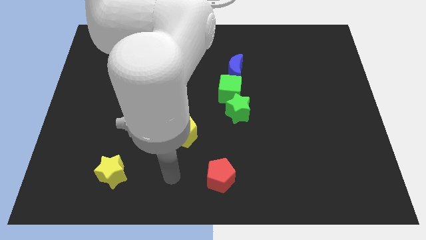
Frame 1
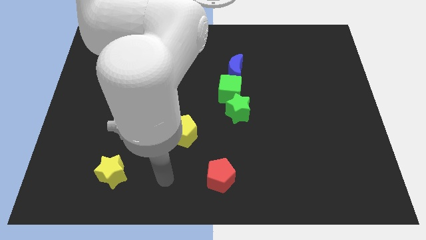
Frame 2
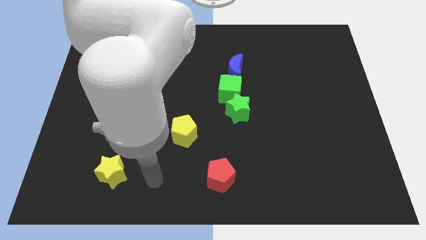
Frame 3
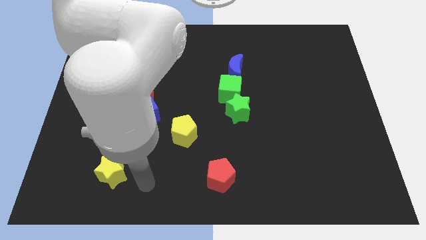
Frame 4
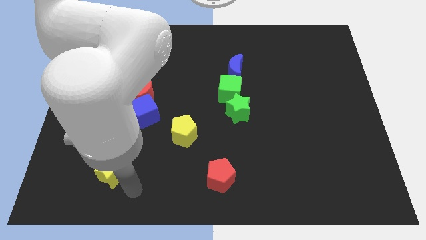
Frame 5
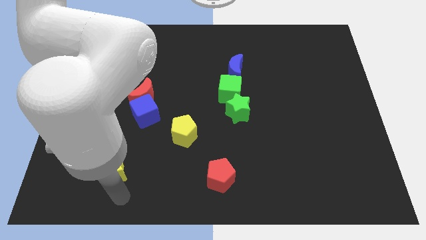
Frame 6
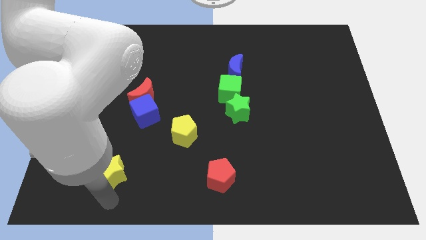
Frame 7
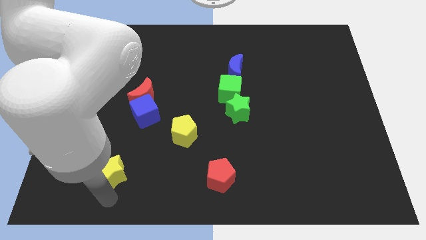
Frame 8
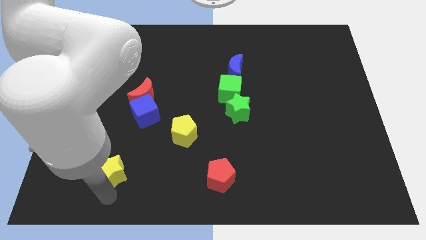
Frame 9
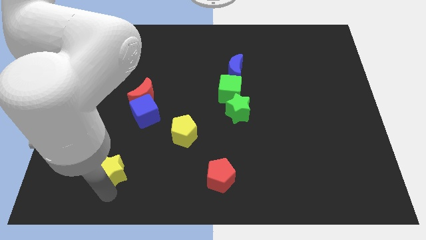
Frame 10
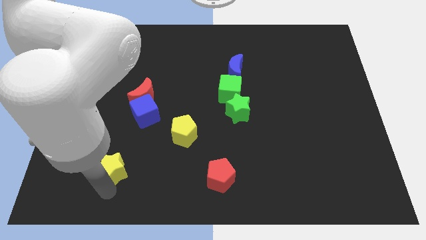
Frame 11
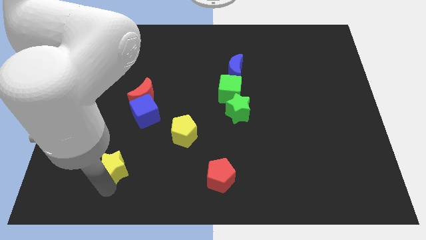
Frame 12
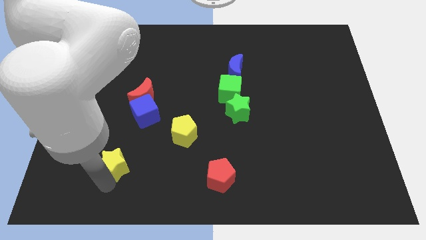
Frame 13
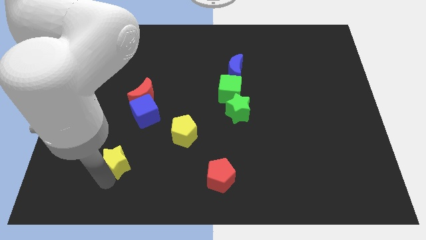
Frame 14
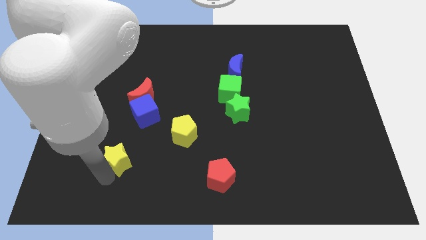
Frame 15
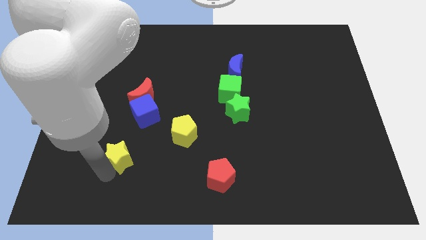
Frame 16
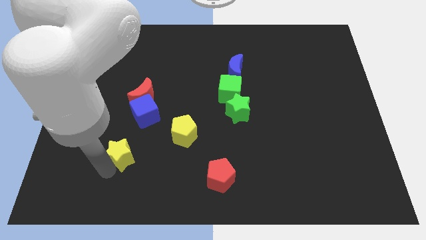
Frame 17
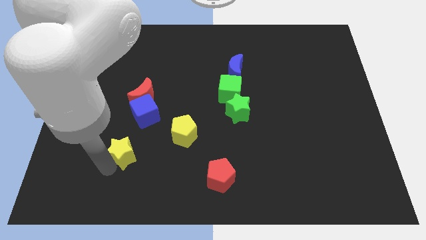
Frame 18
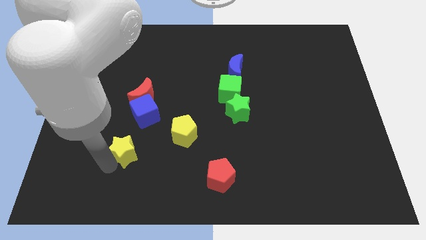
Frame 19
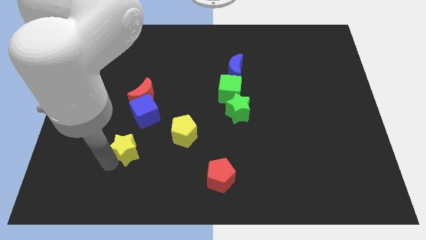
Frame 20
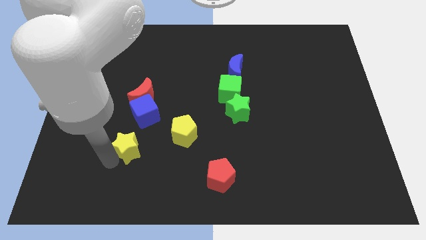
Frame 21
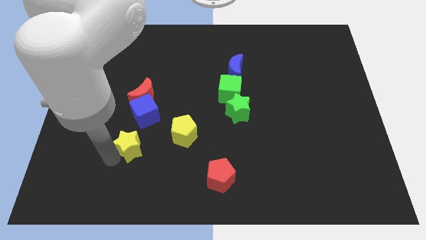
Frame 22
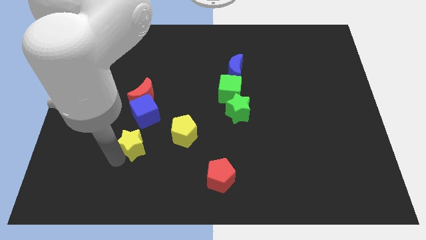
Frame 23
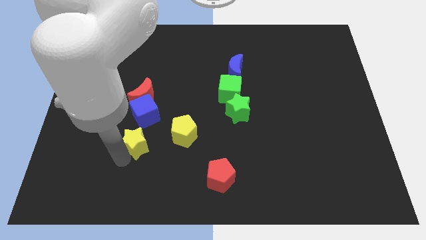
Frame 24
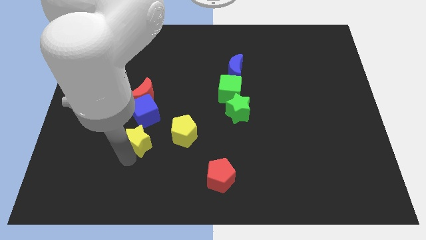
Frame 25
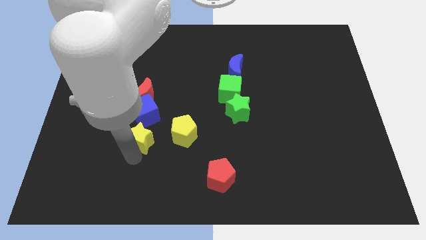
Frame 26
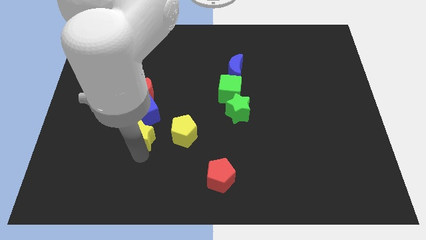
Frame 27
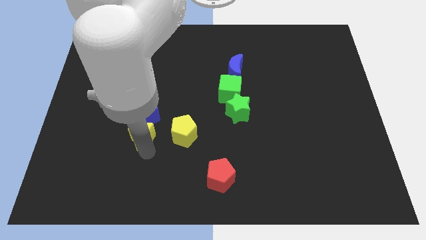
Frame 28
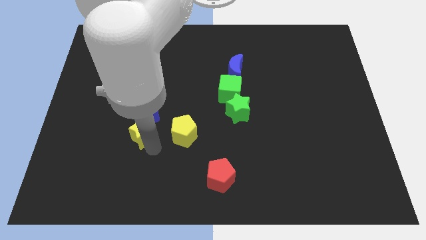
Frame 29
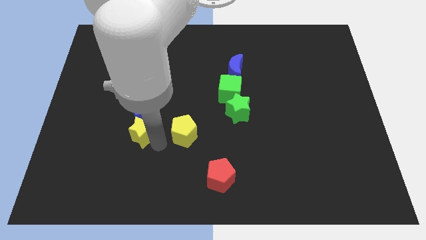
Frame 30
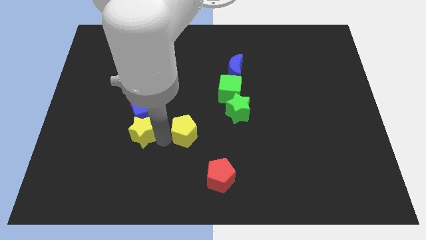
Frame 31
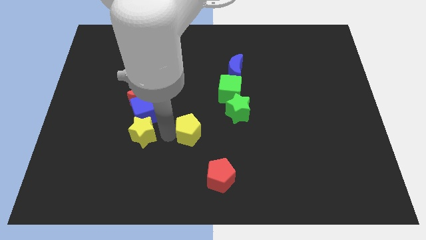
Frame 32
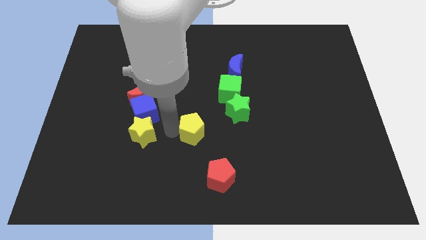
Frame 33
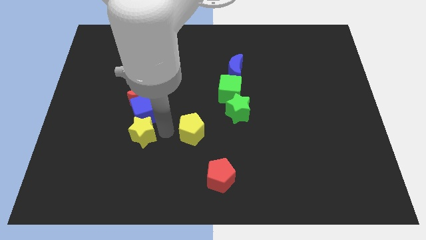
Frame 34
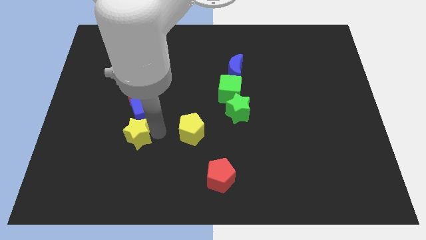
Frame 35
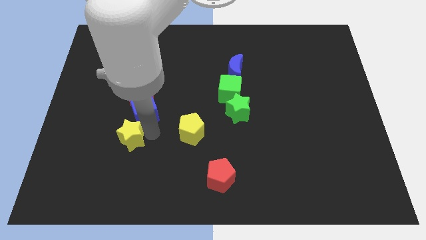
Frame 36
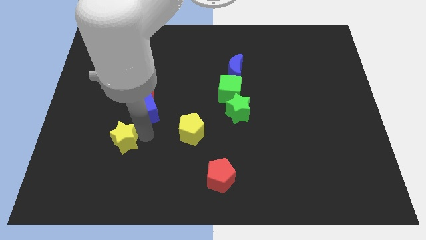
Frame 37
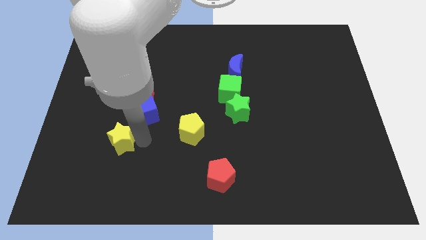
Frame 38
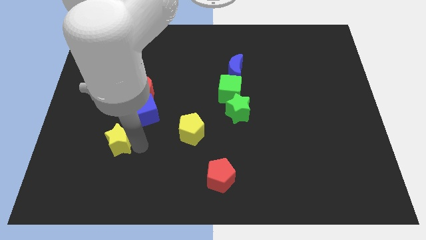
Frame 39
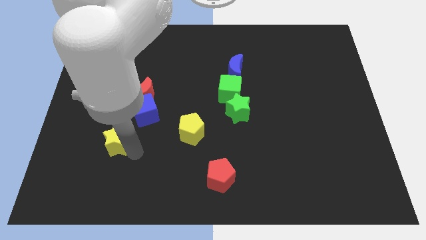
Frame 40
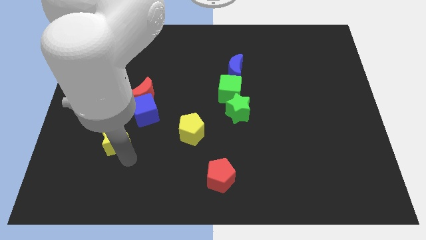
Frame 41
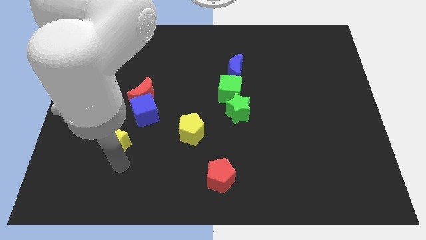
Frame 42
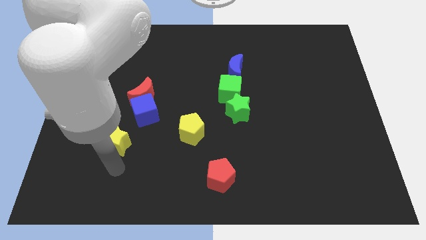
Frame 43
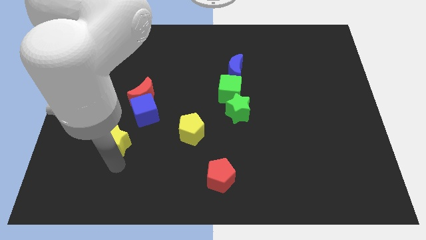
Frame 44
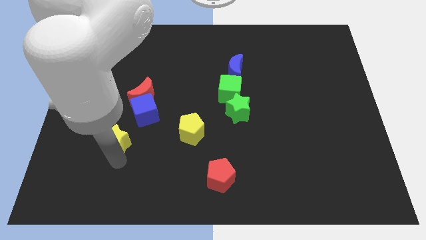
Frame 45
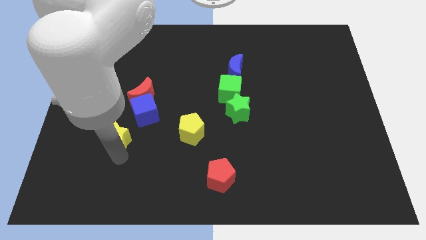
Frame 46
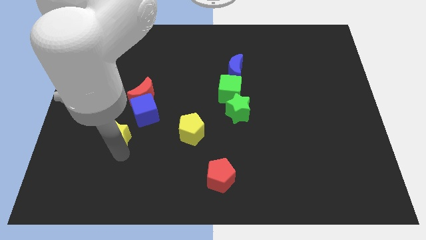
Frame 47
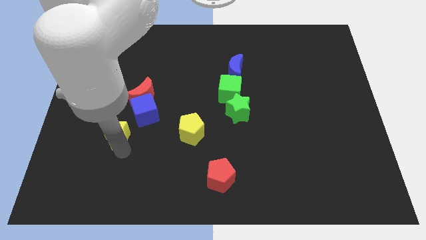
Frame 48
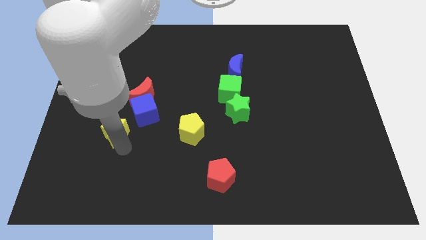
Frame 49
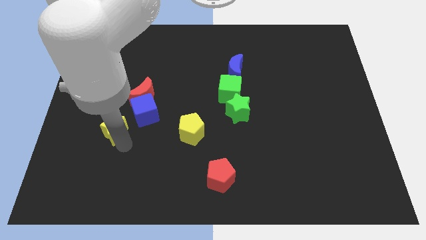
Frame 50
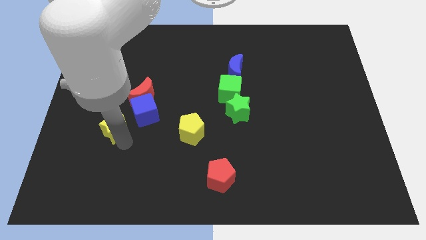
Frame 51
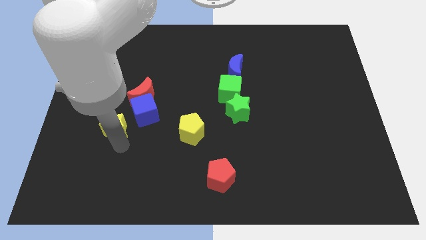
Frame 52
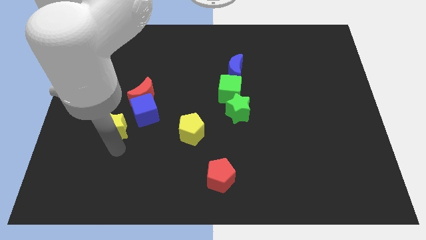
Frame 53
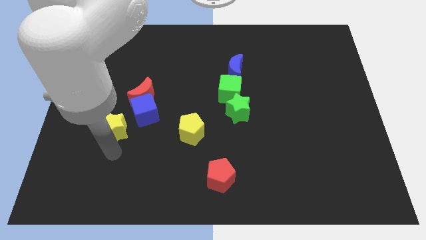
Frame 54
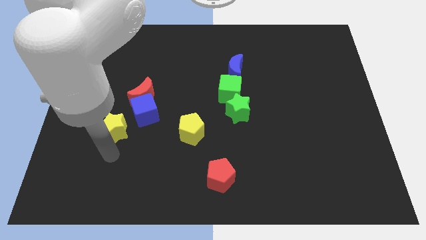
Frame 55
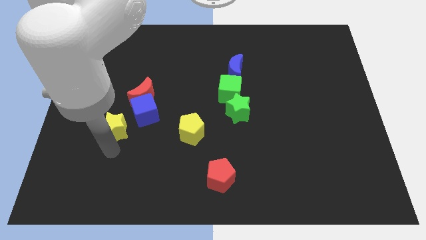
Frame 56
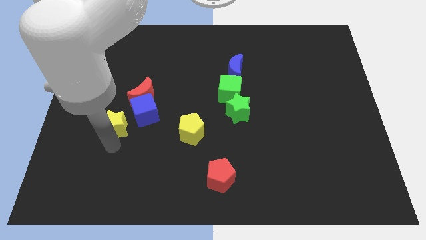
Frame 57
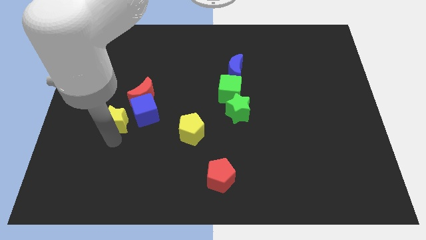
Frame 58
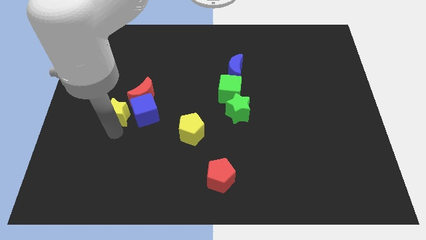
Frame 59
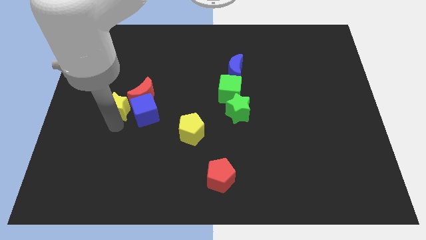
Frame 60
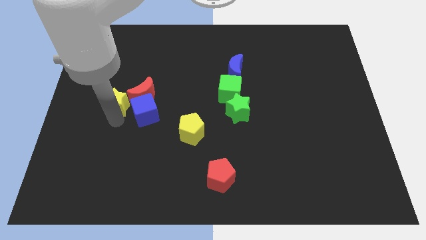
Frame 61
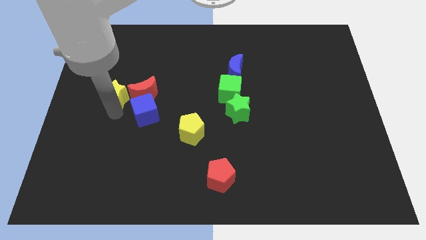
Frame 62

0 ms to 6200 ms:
push the yellow star upwards

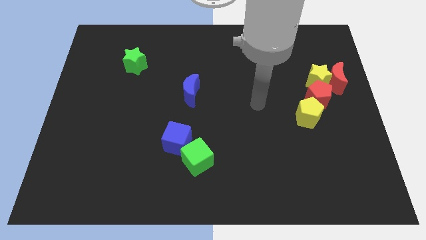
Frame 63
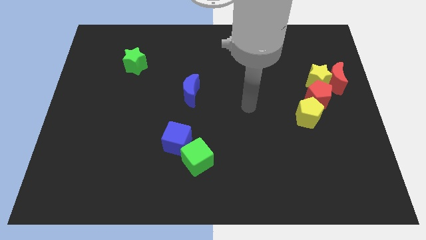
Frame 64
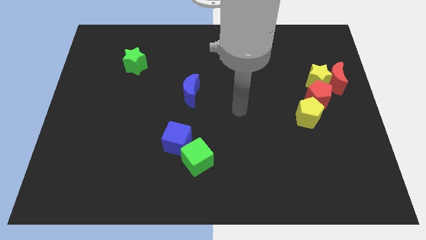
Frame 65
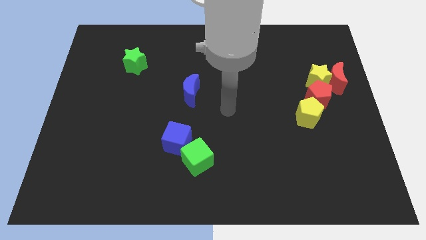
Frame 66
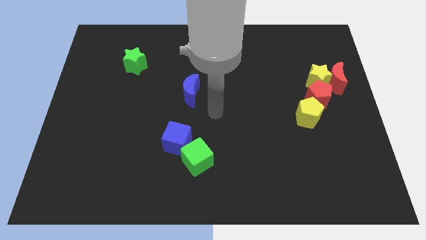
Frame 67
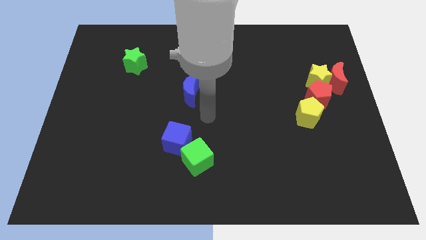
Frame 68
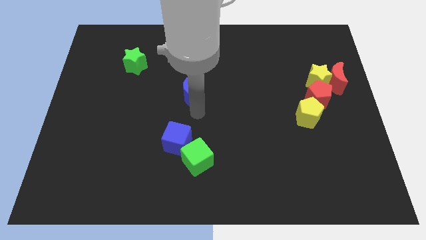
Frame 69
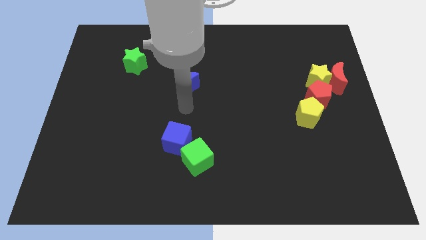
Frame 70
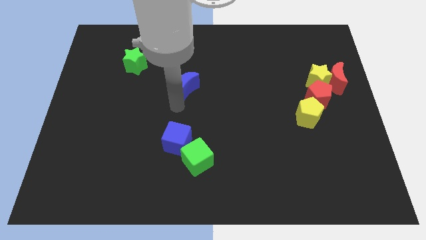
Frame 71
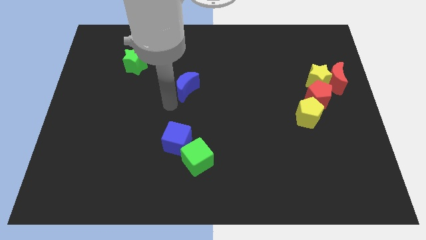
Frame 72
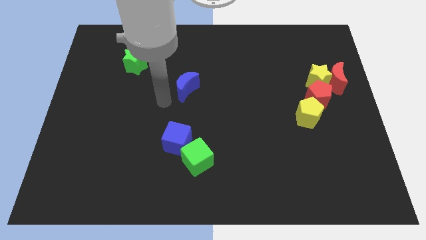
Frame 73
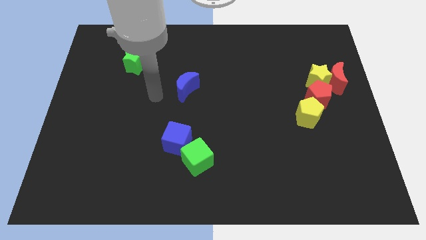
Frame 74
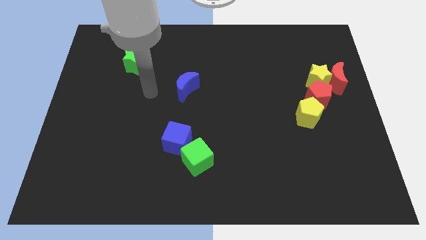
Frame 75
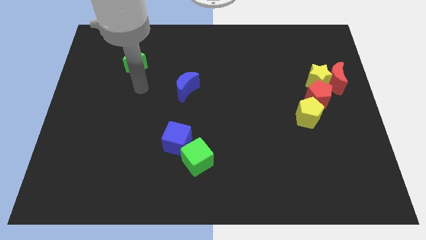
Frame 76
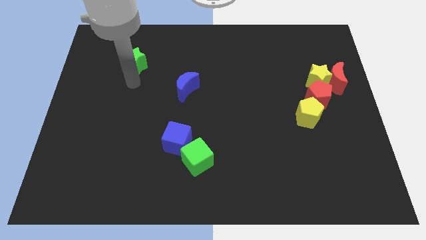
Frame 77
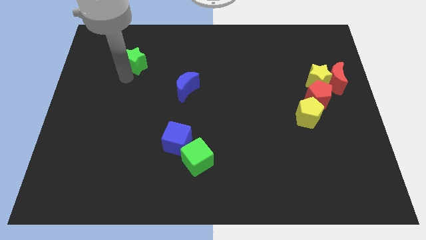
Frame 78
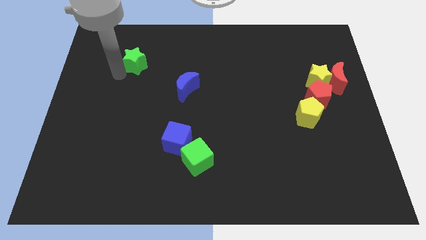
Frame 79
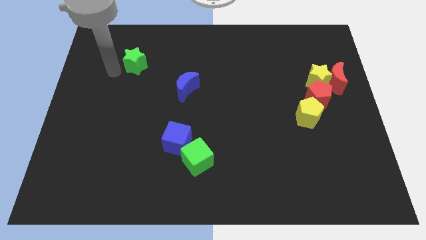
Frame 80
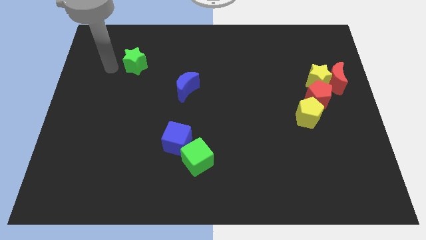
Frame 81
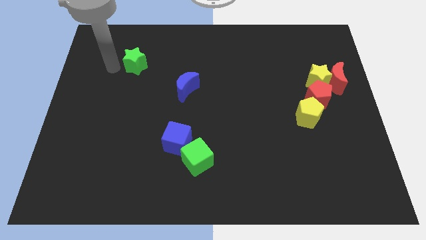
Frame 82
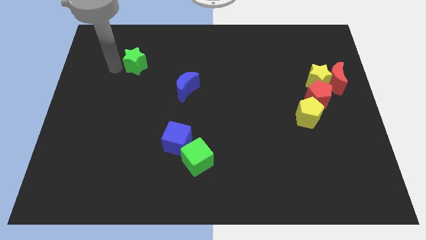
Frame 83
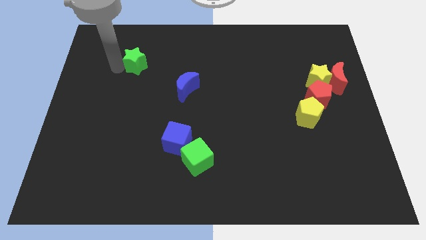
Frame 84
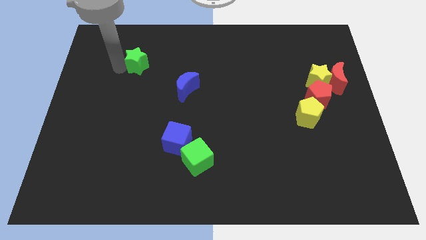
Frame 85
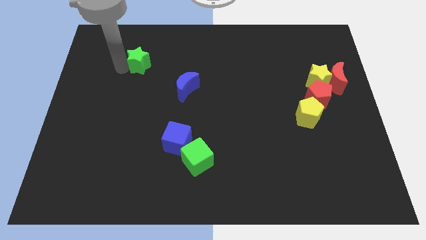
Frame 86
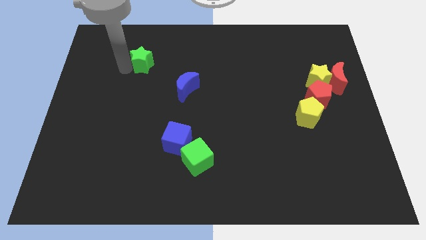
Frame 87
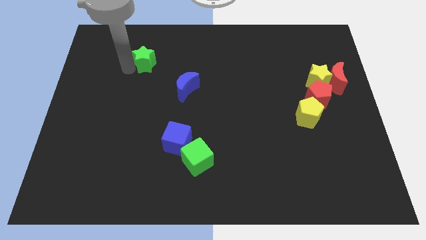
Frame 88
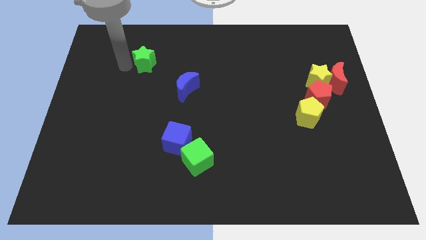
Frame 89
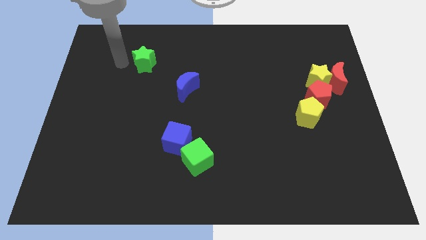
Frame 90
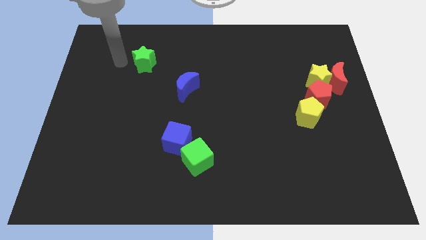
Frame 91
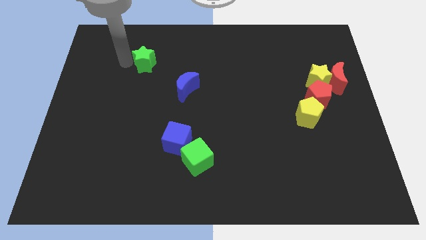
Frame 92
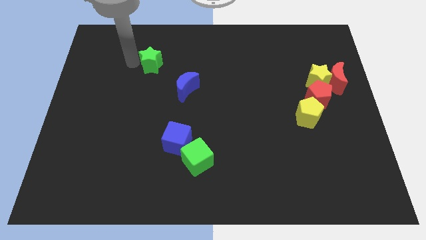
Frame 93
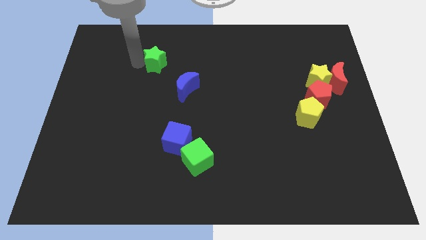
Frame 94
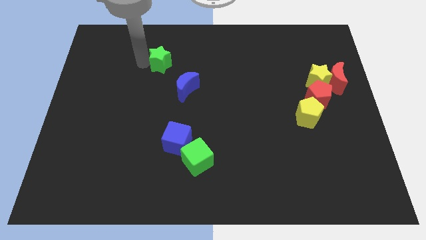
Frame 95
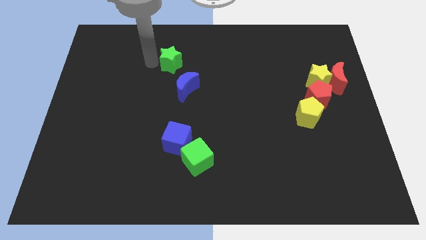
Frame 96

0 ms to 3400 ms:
slightly slide the green star to the right
